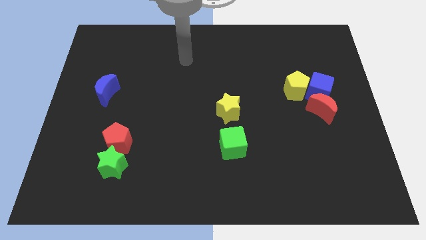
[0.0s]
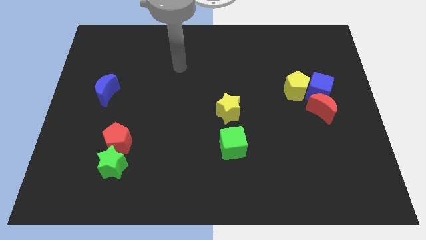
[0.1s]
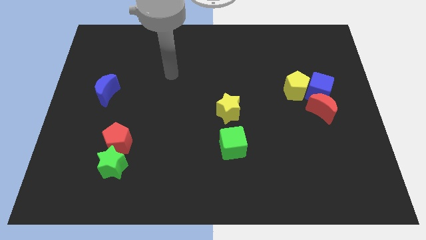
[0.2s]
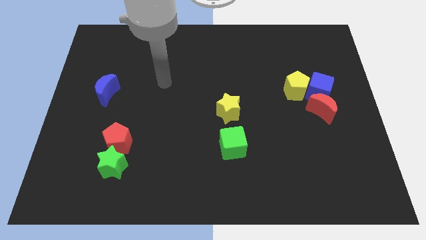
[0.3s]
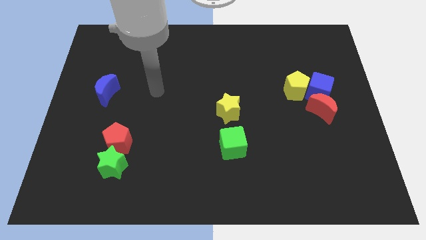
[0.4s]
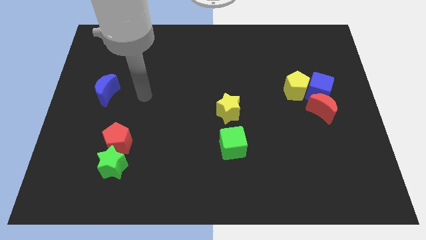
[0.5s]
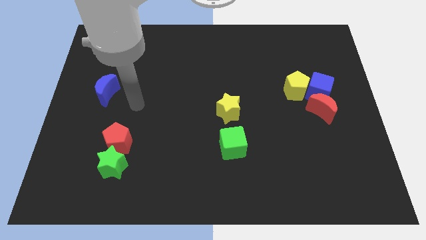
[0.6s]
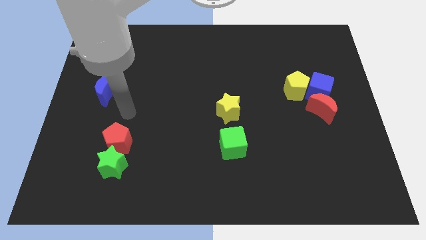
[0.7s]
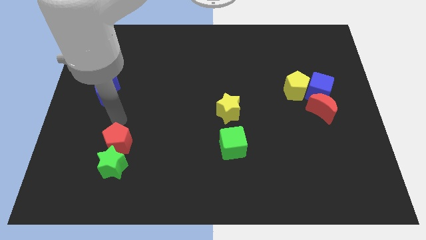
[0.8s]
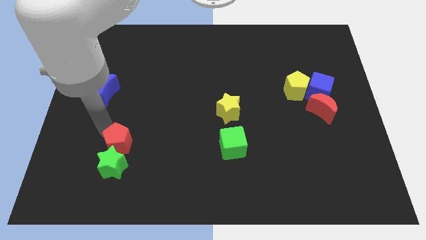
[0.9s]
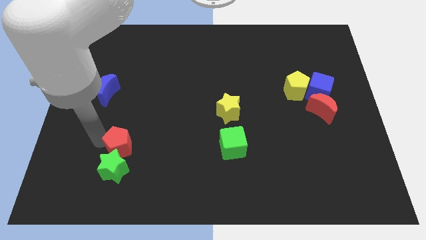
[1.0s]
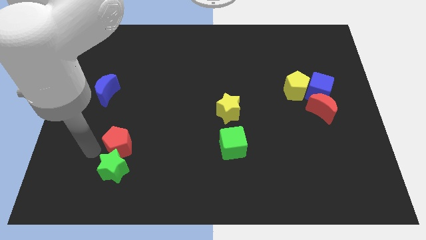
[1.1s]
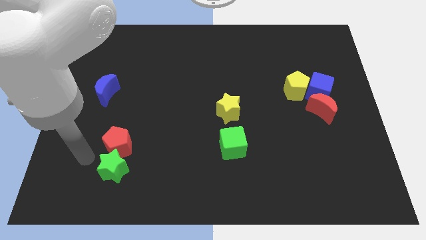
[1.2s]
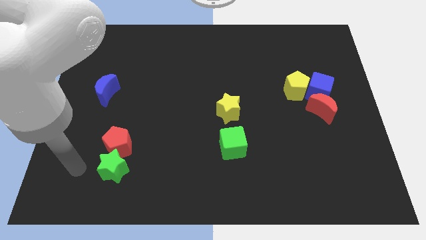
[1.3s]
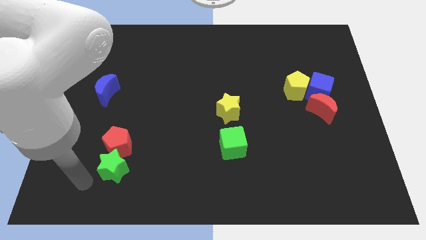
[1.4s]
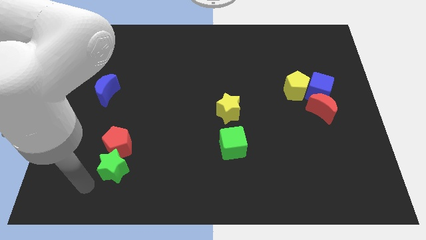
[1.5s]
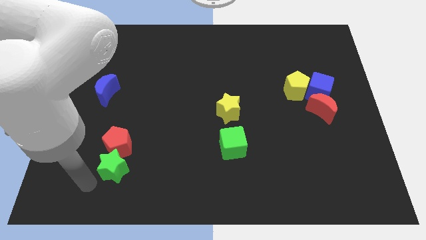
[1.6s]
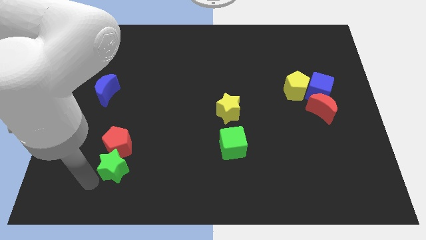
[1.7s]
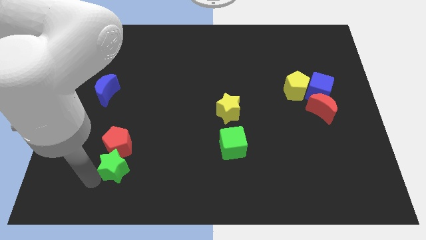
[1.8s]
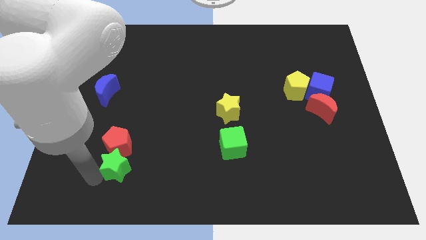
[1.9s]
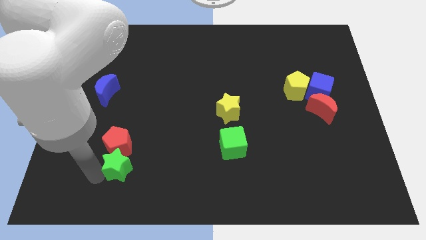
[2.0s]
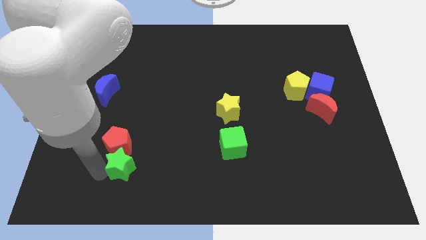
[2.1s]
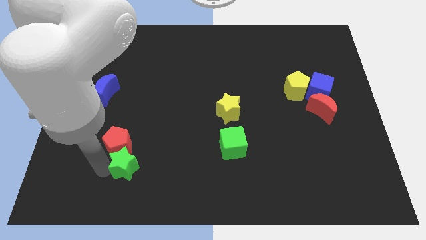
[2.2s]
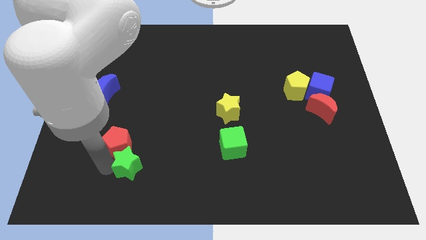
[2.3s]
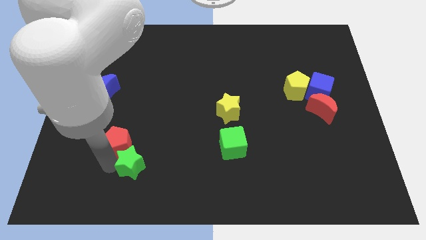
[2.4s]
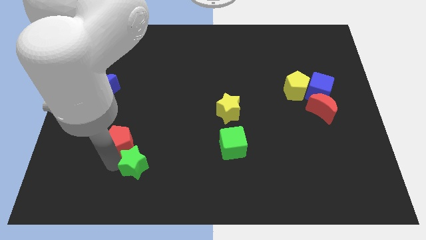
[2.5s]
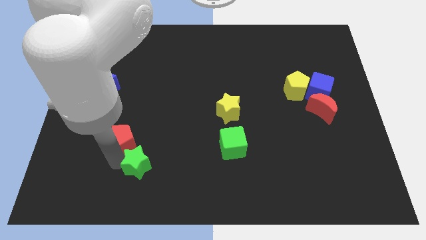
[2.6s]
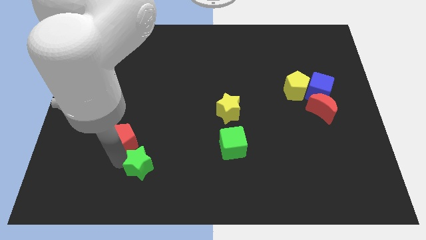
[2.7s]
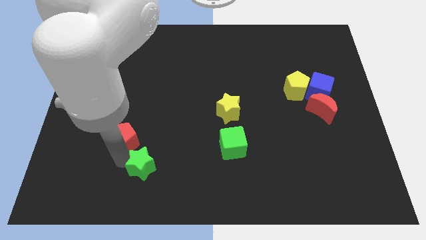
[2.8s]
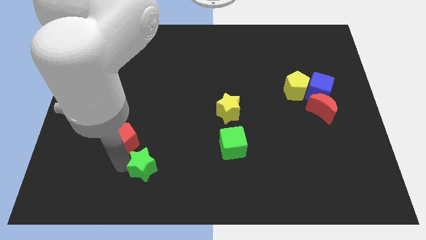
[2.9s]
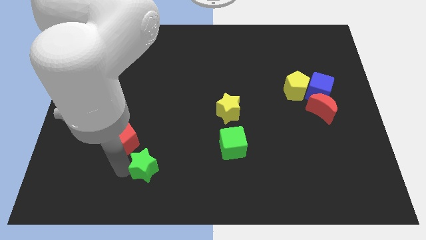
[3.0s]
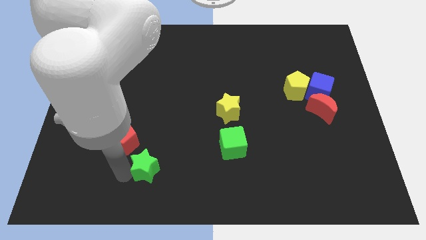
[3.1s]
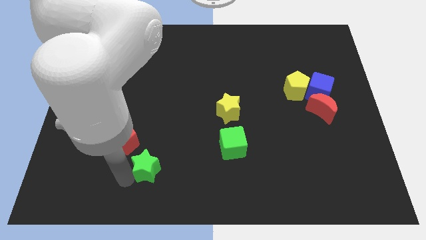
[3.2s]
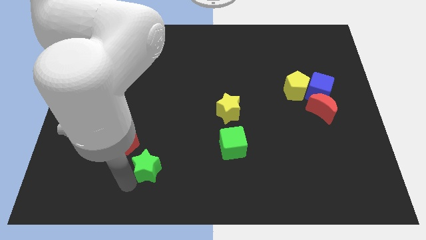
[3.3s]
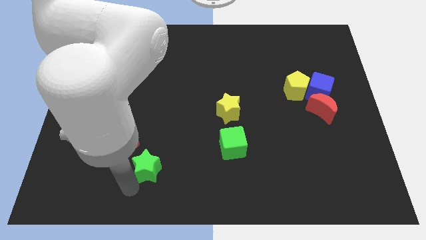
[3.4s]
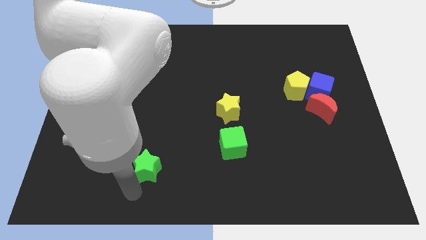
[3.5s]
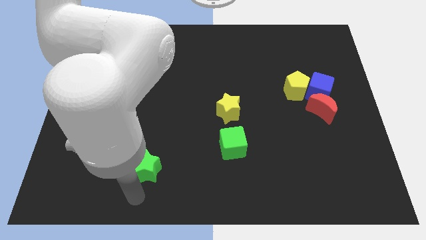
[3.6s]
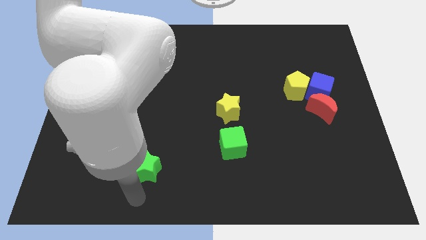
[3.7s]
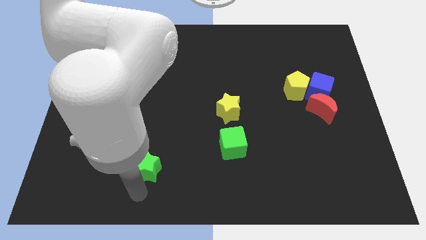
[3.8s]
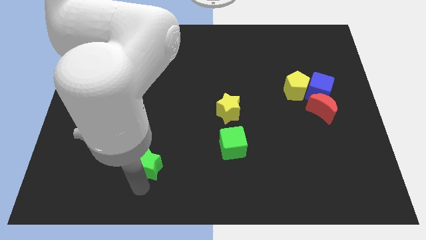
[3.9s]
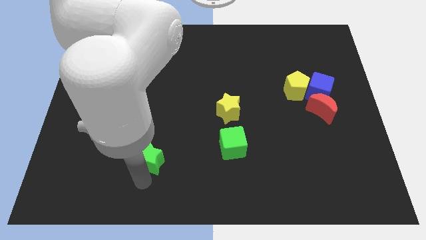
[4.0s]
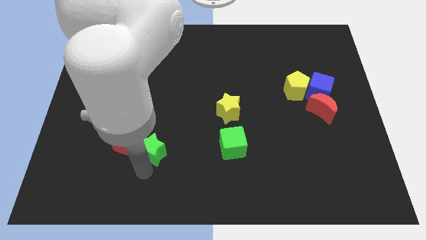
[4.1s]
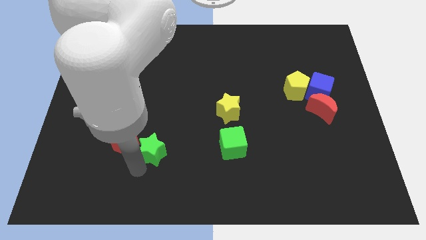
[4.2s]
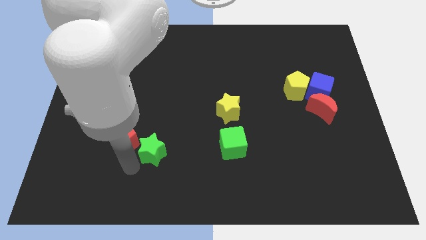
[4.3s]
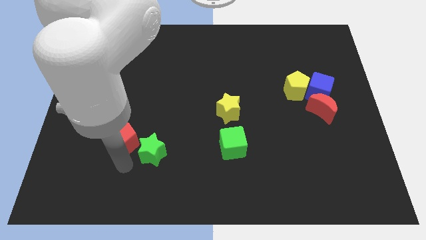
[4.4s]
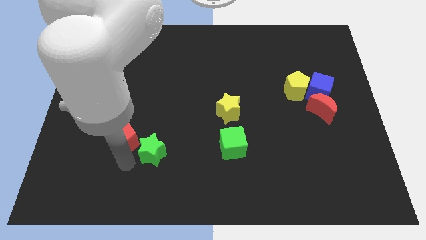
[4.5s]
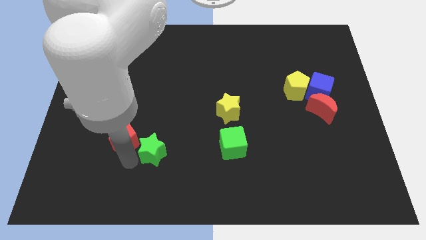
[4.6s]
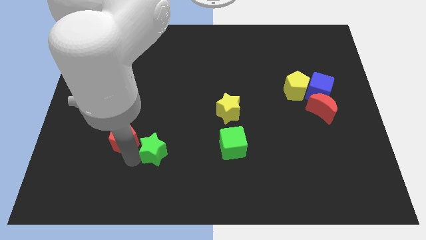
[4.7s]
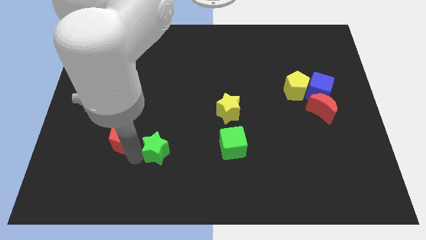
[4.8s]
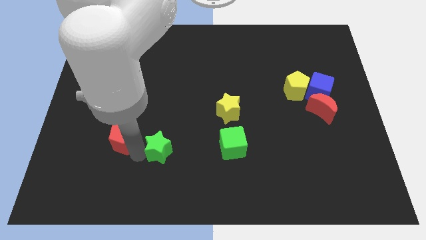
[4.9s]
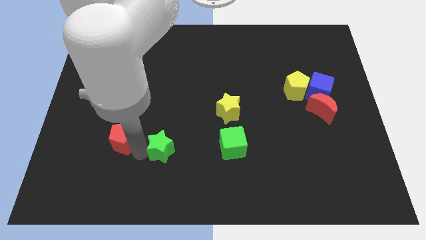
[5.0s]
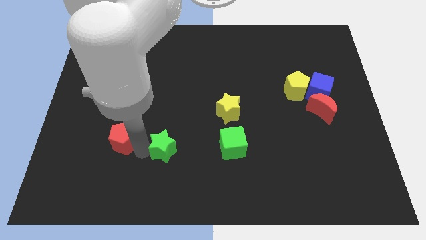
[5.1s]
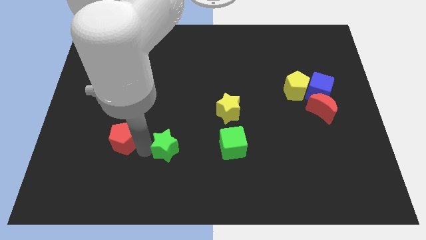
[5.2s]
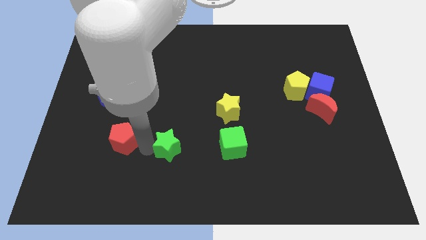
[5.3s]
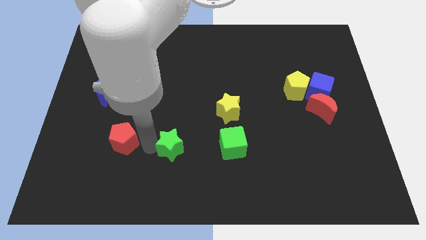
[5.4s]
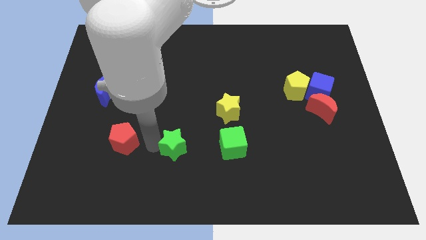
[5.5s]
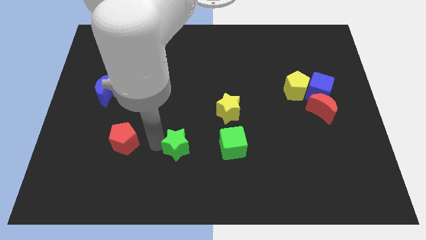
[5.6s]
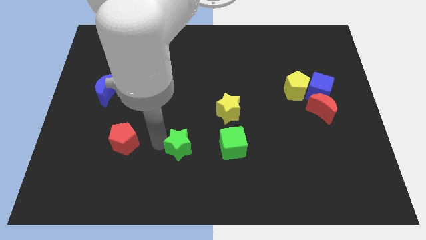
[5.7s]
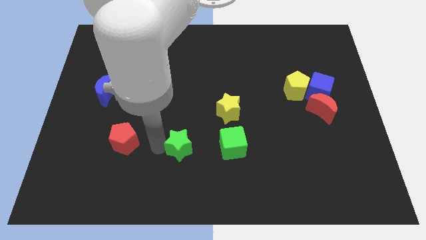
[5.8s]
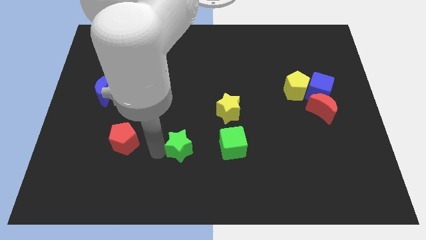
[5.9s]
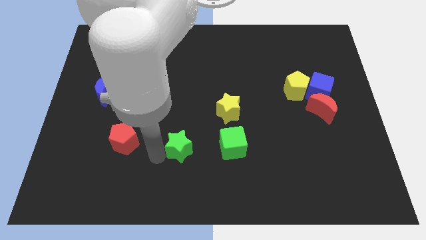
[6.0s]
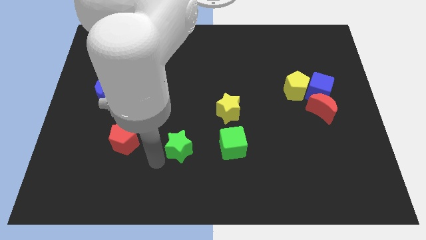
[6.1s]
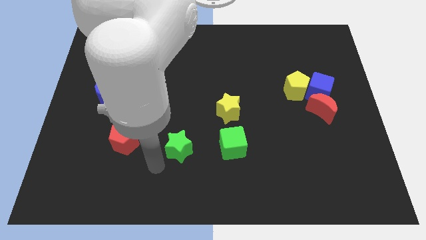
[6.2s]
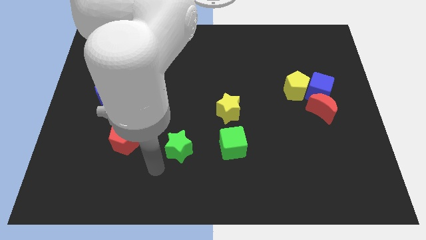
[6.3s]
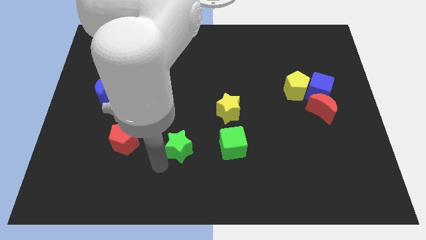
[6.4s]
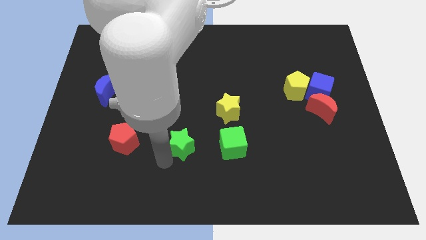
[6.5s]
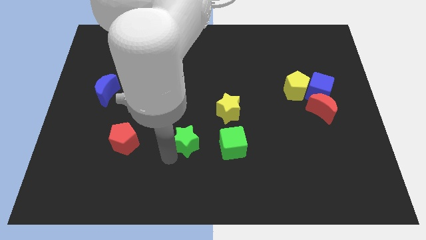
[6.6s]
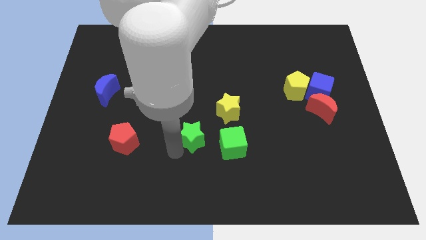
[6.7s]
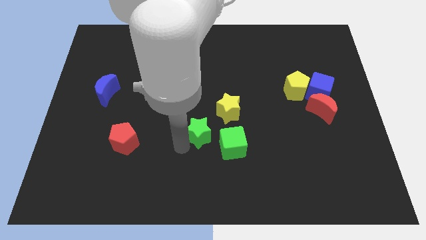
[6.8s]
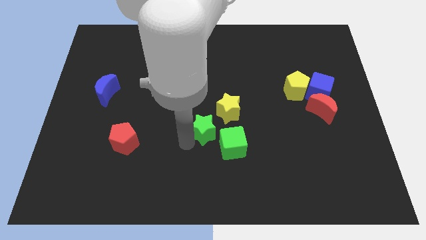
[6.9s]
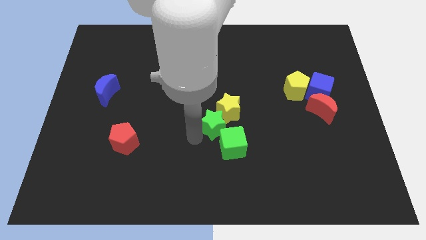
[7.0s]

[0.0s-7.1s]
slide the green star next to the yellow star
